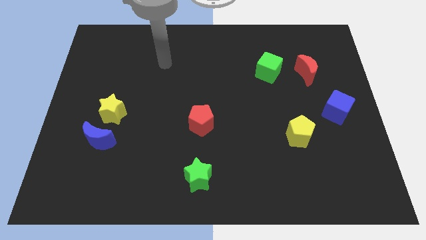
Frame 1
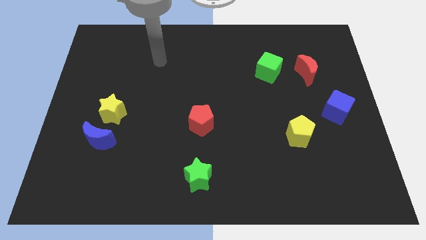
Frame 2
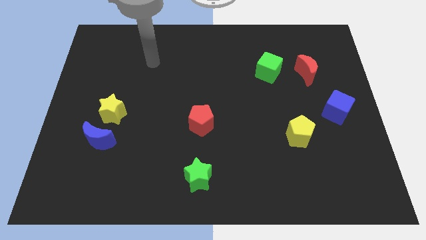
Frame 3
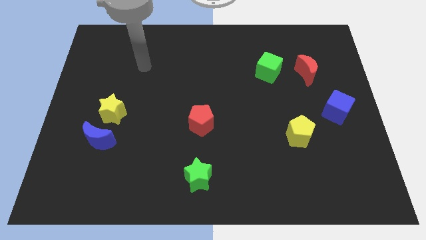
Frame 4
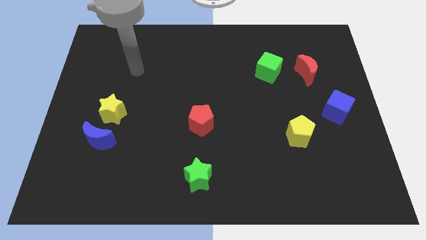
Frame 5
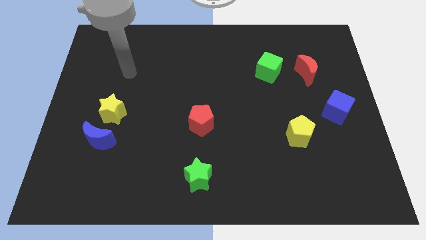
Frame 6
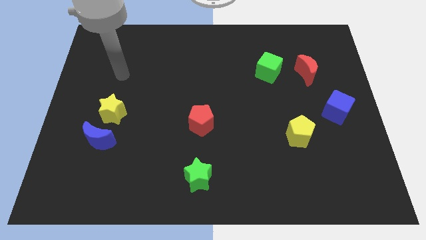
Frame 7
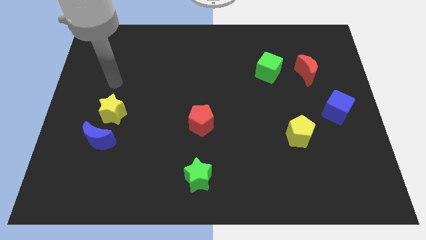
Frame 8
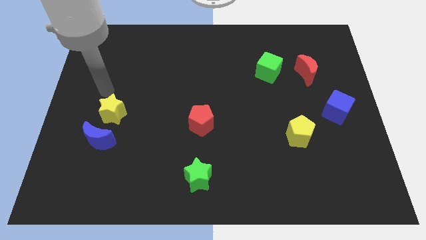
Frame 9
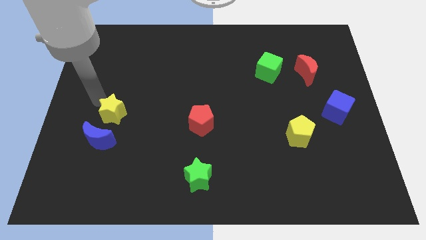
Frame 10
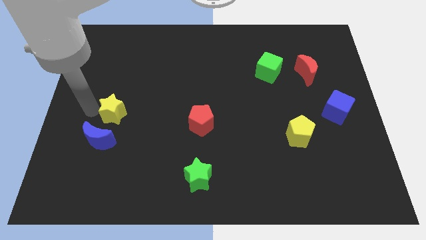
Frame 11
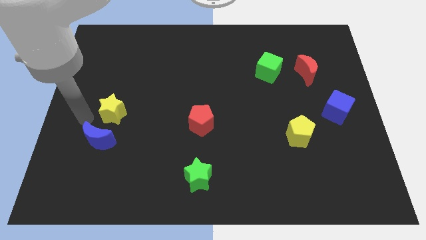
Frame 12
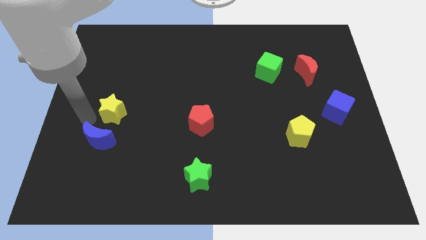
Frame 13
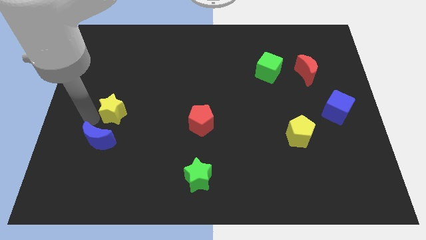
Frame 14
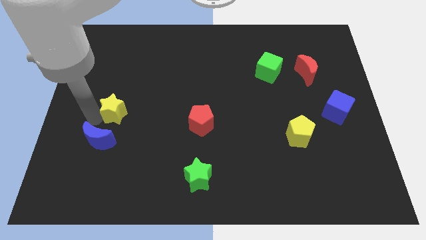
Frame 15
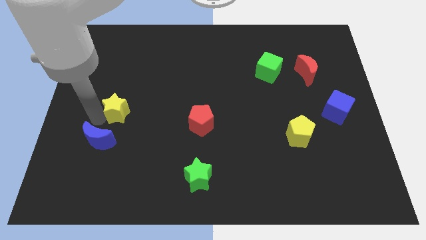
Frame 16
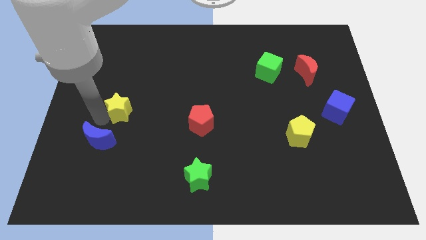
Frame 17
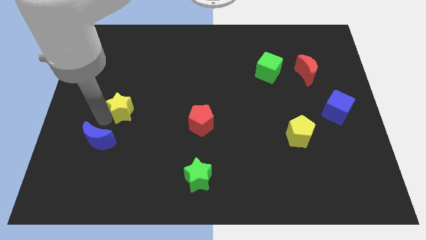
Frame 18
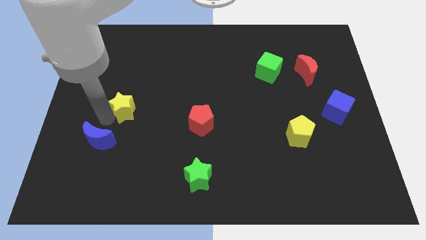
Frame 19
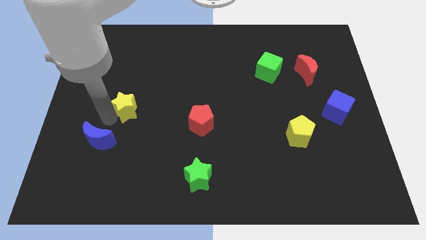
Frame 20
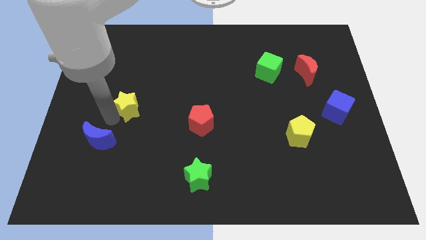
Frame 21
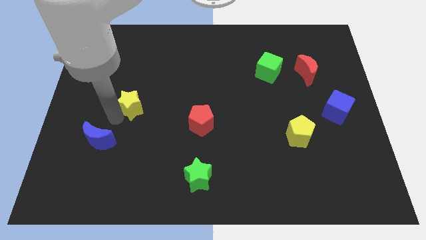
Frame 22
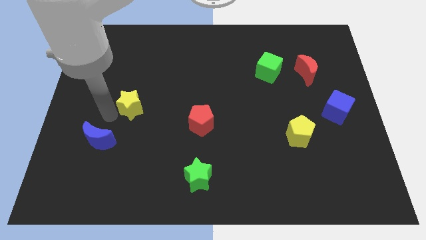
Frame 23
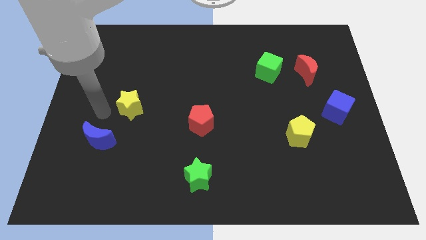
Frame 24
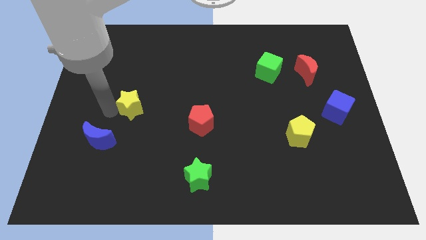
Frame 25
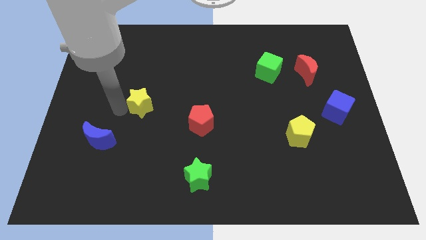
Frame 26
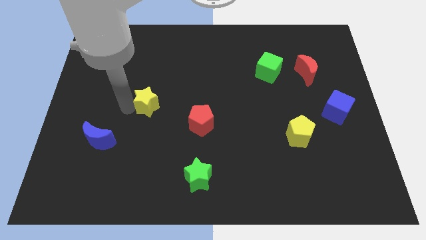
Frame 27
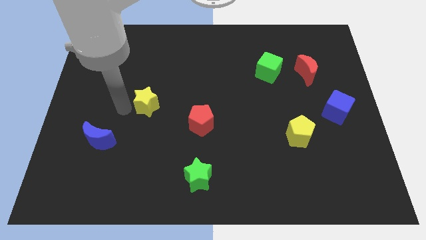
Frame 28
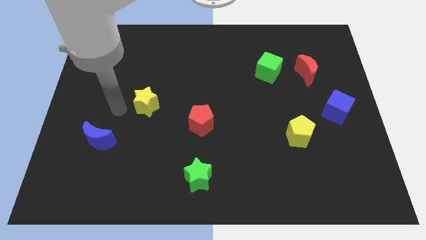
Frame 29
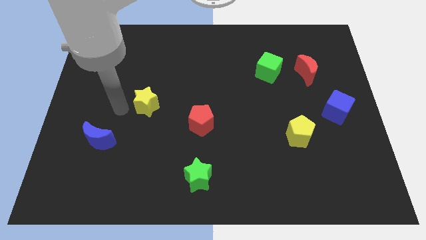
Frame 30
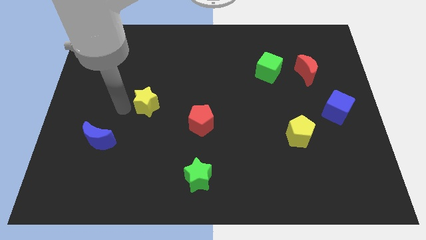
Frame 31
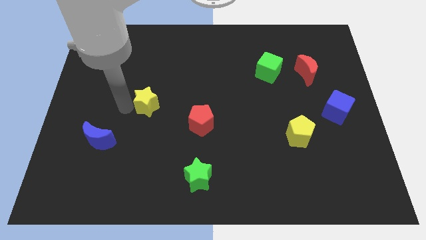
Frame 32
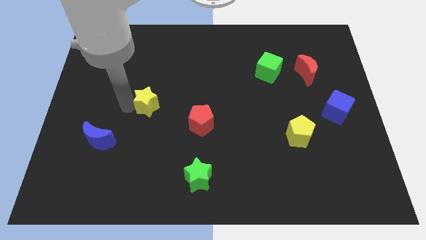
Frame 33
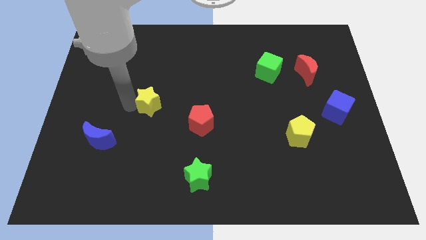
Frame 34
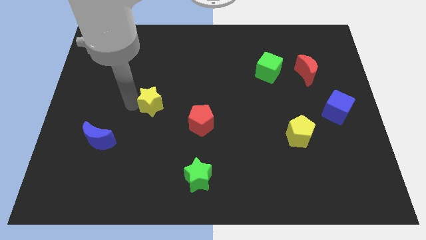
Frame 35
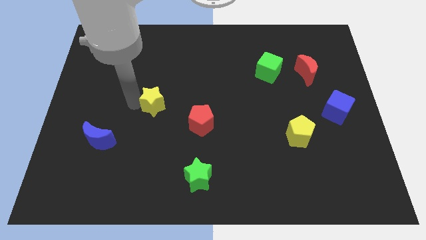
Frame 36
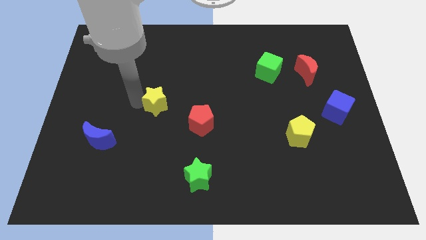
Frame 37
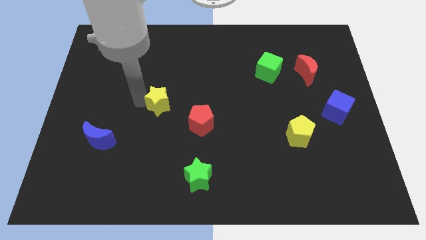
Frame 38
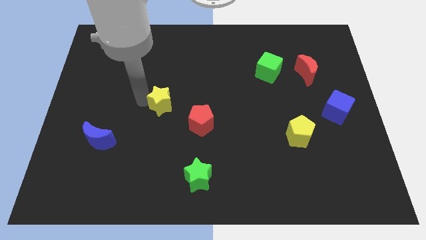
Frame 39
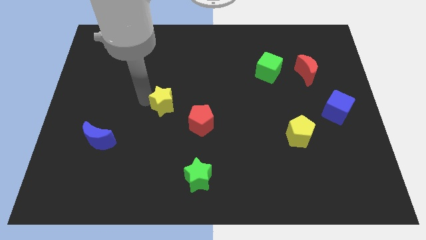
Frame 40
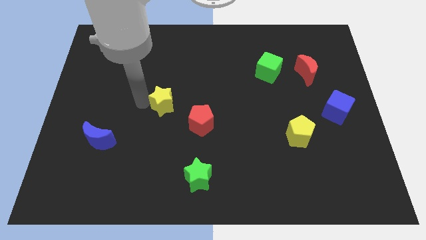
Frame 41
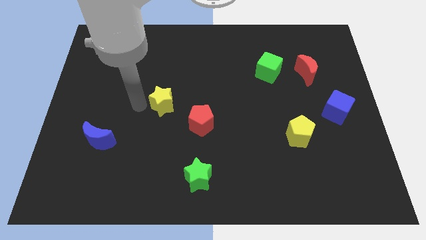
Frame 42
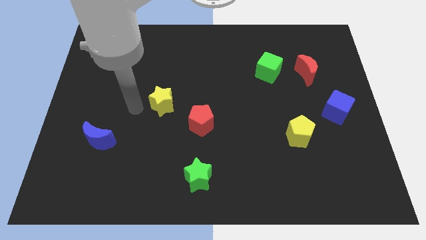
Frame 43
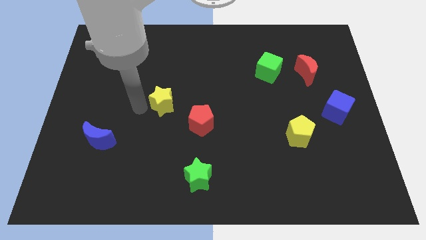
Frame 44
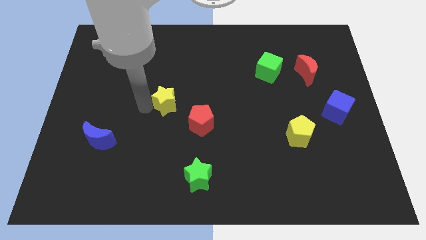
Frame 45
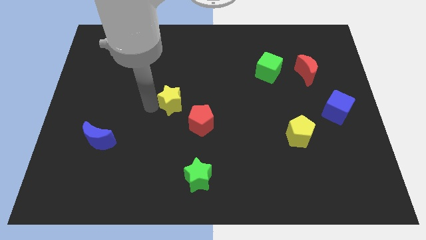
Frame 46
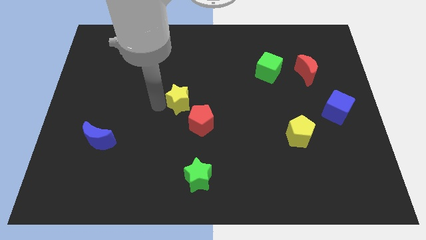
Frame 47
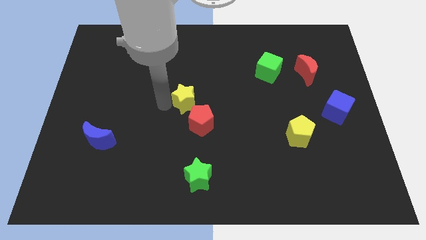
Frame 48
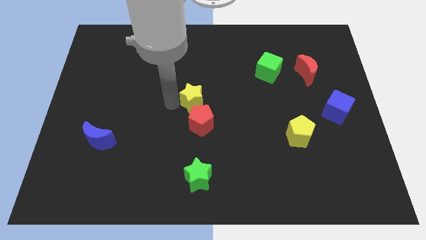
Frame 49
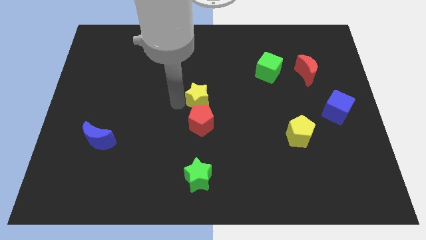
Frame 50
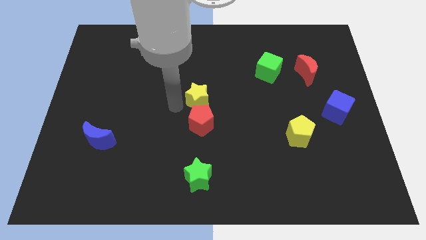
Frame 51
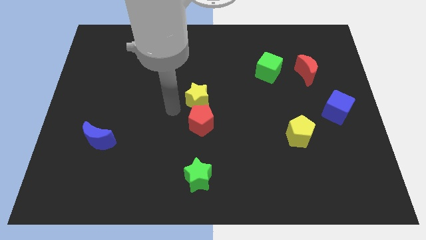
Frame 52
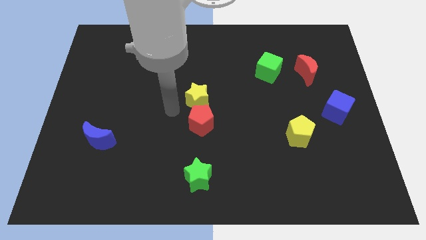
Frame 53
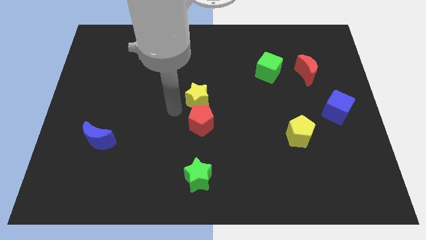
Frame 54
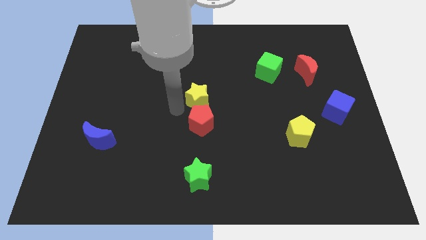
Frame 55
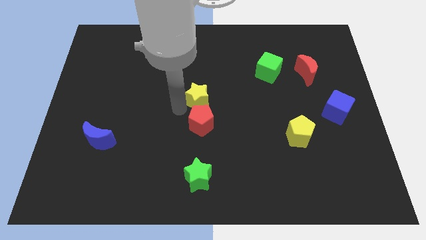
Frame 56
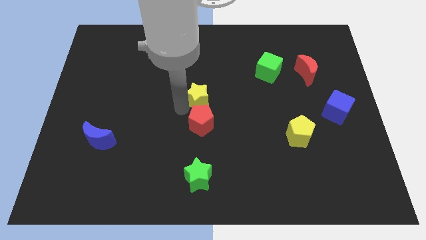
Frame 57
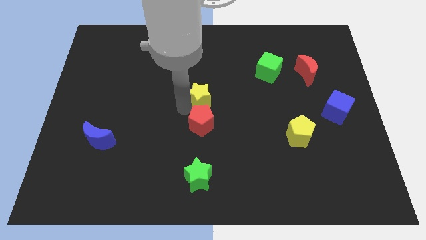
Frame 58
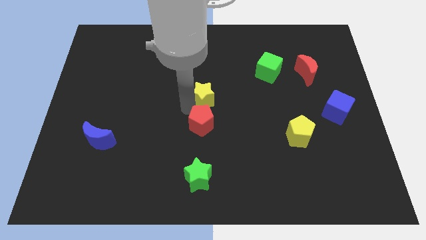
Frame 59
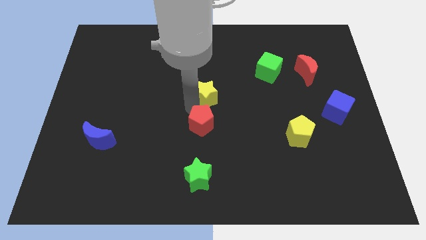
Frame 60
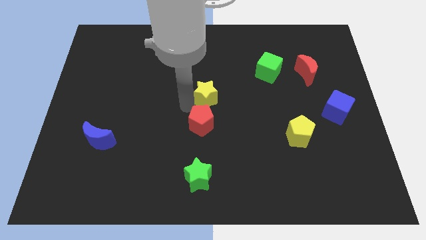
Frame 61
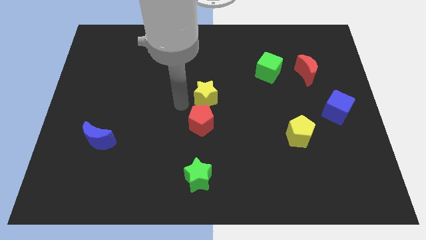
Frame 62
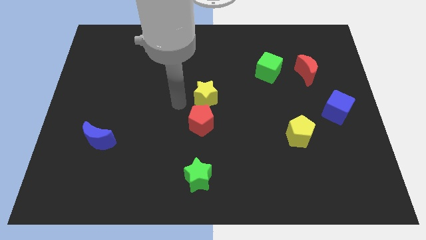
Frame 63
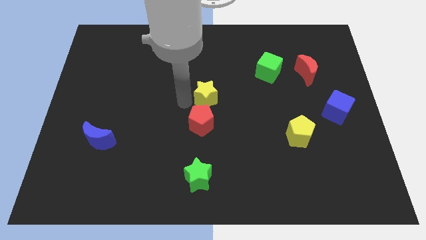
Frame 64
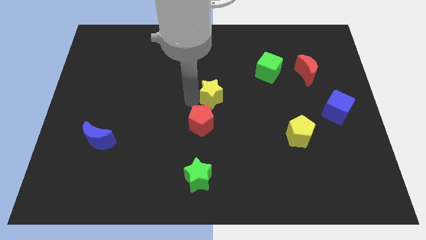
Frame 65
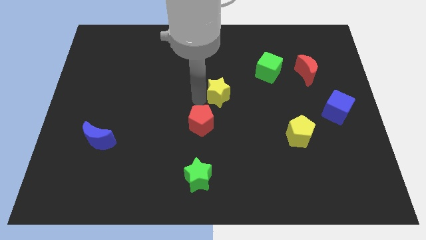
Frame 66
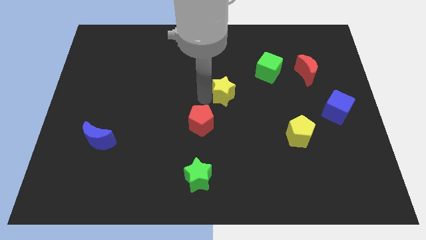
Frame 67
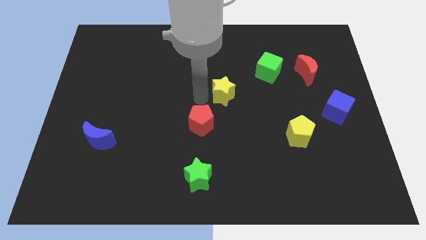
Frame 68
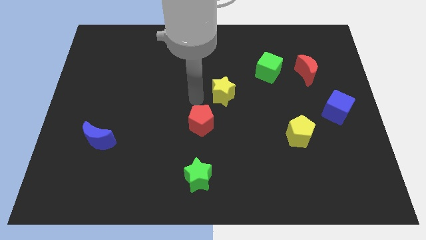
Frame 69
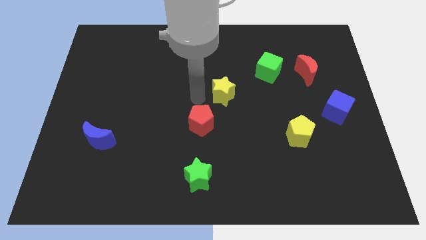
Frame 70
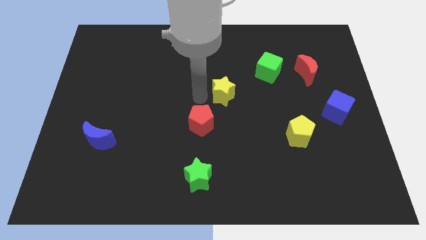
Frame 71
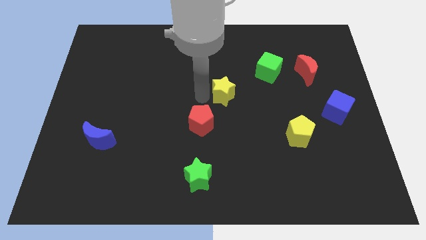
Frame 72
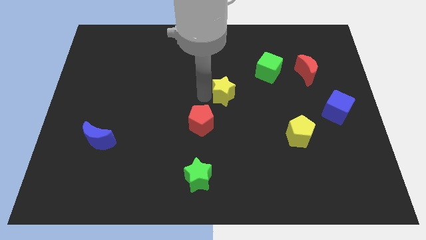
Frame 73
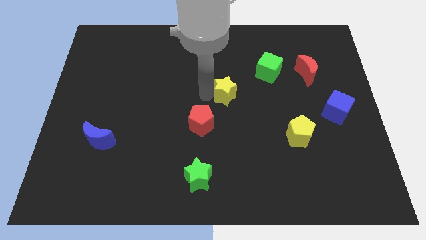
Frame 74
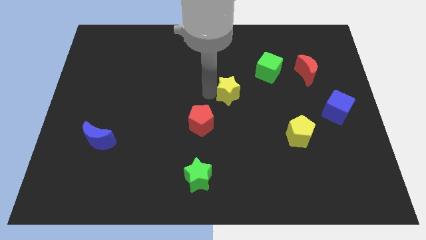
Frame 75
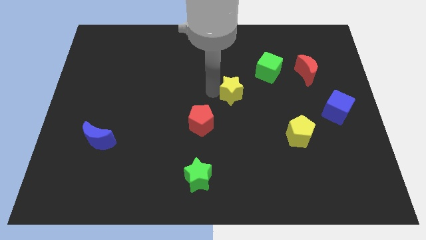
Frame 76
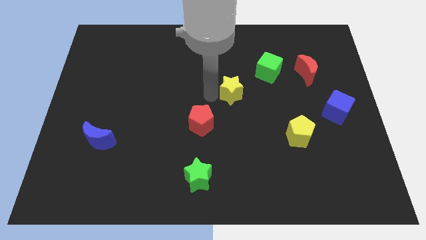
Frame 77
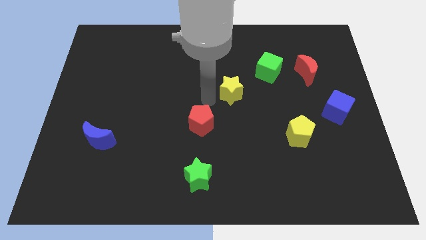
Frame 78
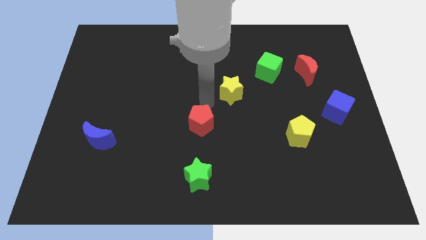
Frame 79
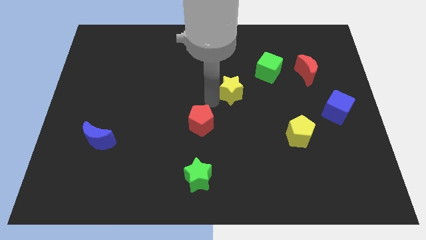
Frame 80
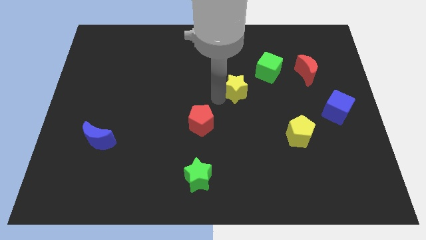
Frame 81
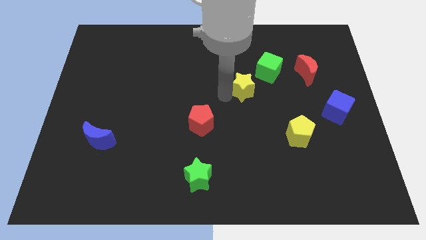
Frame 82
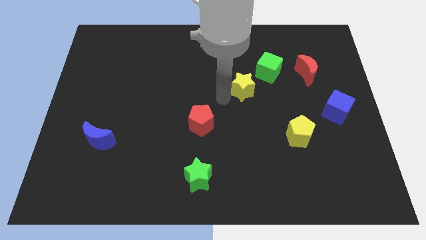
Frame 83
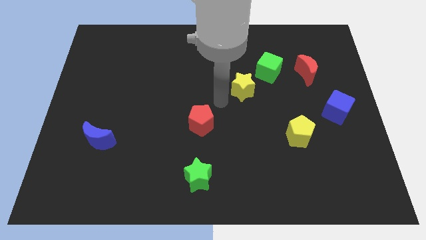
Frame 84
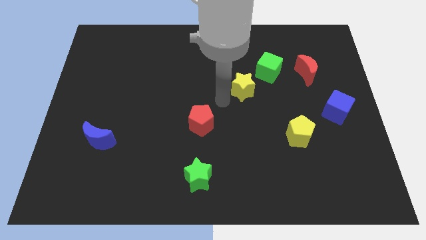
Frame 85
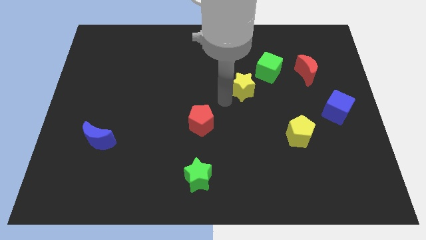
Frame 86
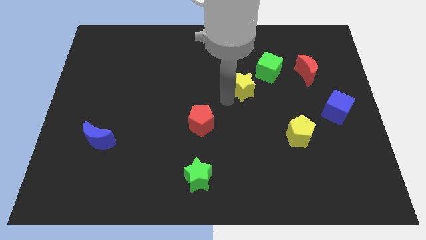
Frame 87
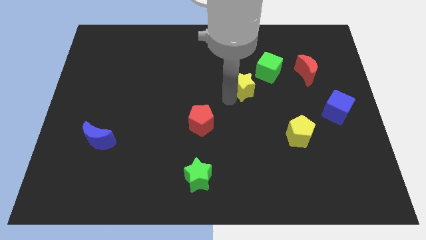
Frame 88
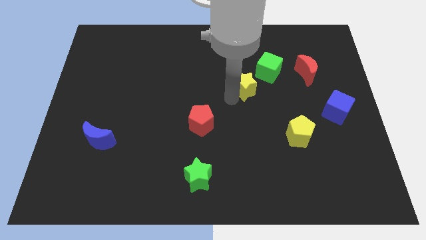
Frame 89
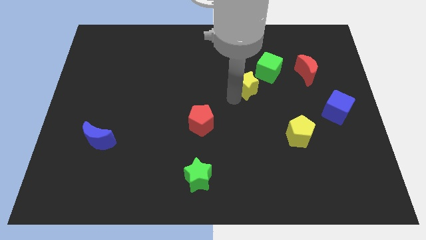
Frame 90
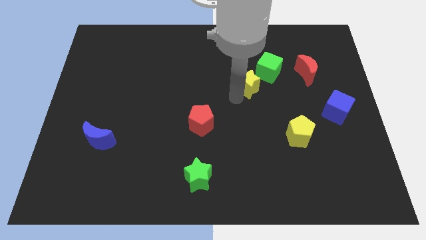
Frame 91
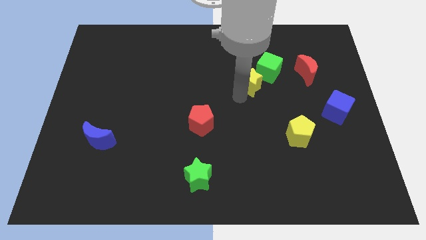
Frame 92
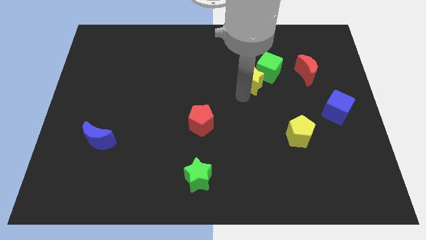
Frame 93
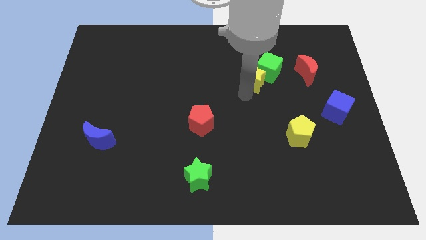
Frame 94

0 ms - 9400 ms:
put the yellow star next to the green cube
